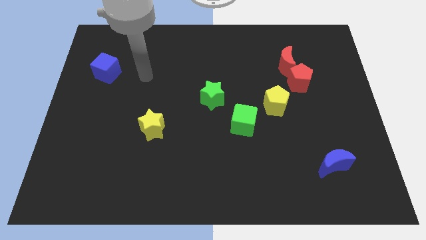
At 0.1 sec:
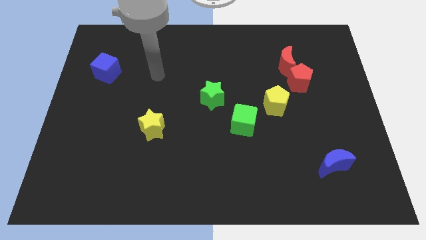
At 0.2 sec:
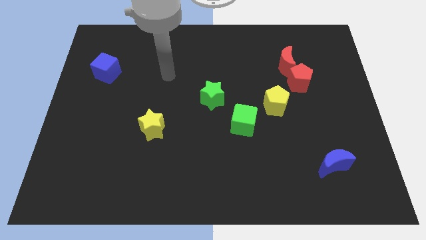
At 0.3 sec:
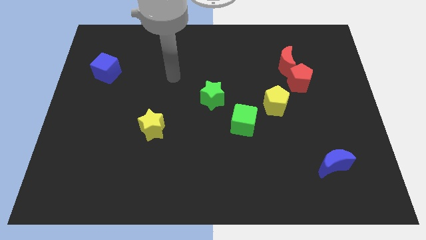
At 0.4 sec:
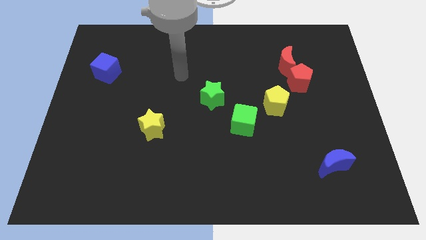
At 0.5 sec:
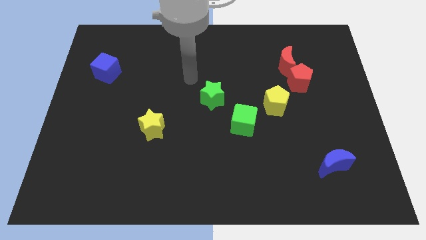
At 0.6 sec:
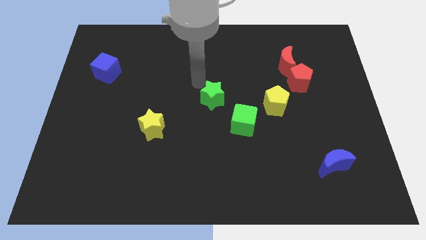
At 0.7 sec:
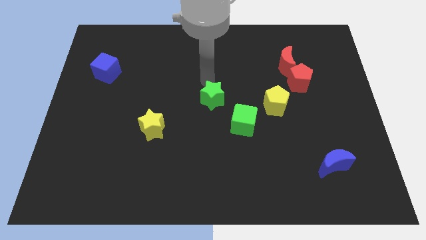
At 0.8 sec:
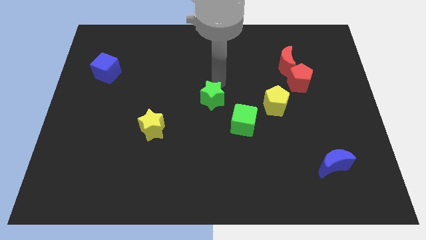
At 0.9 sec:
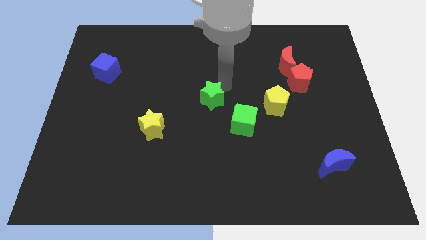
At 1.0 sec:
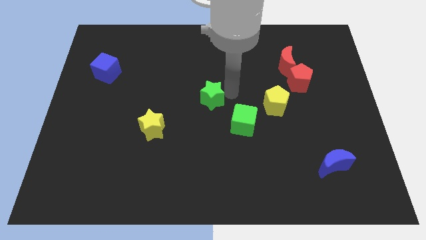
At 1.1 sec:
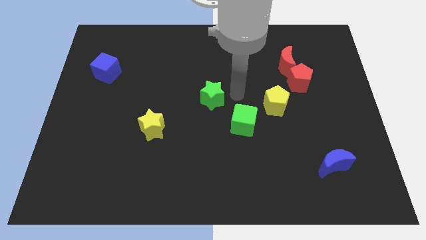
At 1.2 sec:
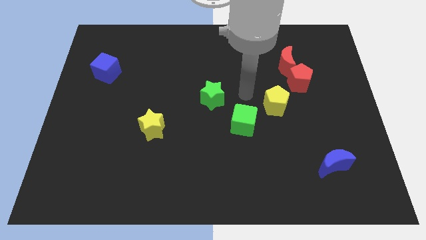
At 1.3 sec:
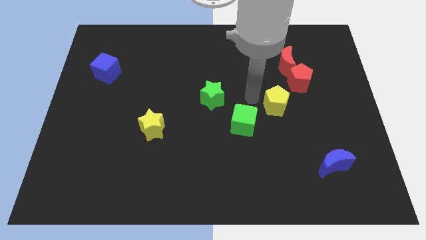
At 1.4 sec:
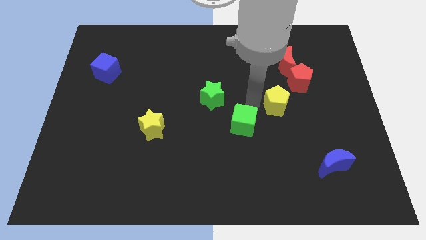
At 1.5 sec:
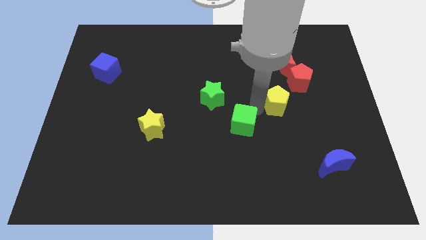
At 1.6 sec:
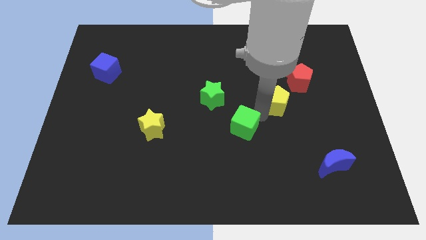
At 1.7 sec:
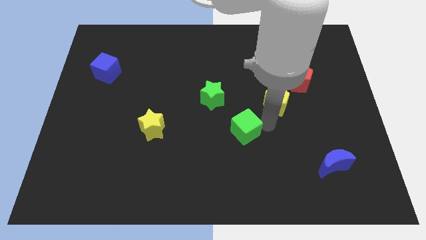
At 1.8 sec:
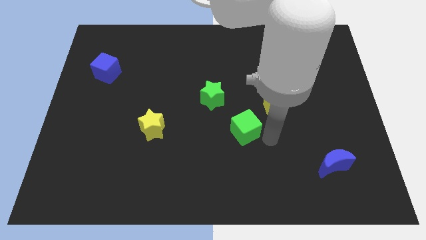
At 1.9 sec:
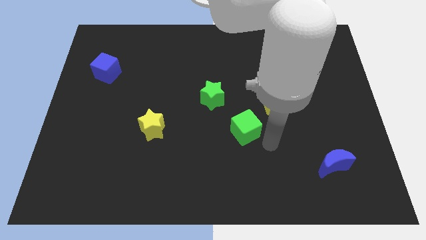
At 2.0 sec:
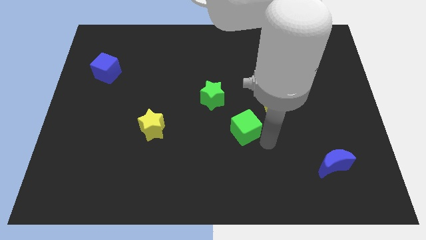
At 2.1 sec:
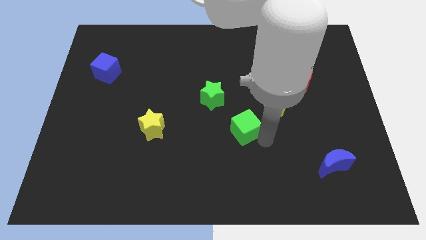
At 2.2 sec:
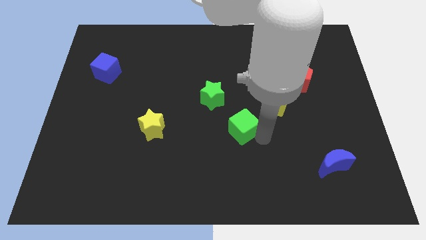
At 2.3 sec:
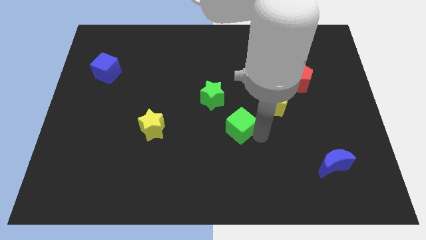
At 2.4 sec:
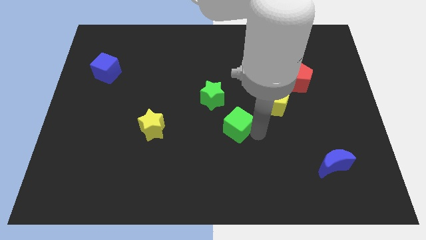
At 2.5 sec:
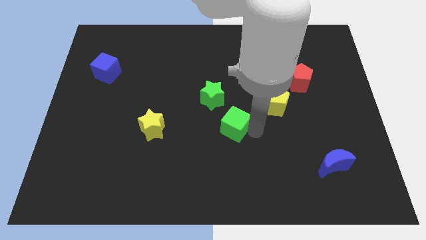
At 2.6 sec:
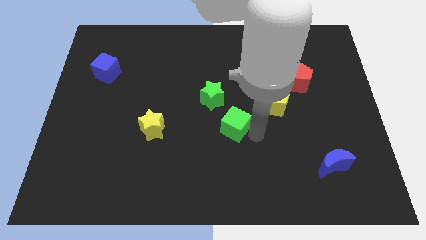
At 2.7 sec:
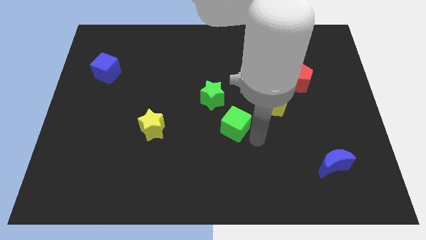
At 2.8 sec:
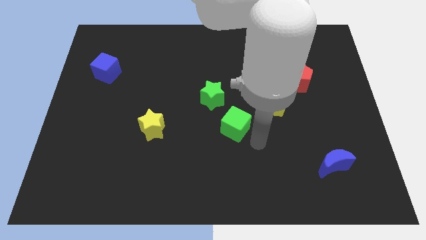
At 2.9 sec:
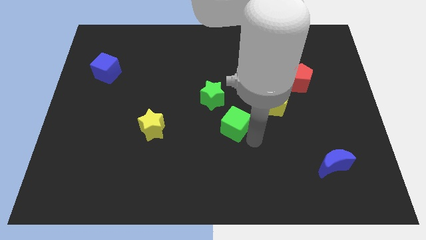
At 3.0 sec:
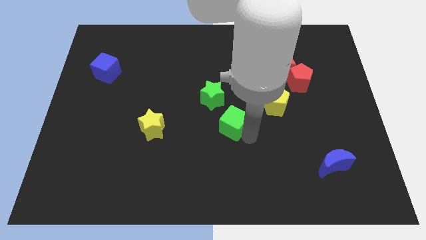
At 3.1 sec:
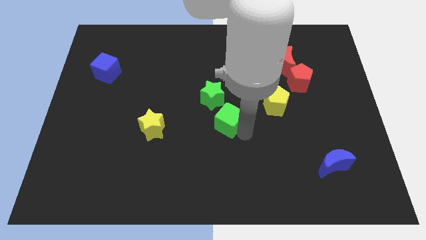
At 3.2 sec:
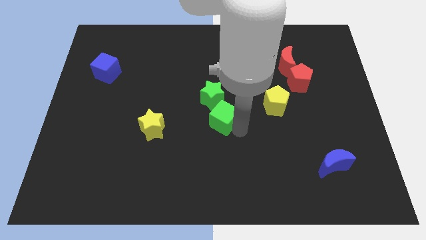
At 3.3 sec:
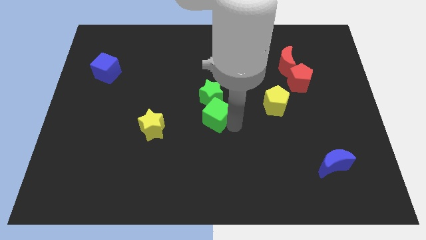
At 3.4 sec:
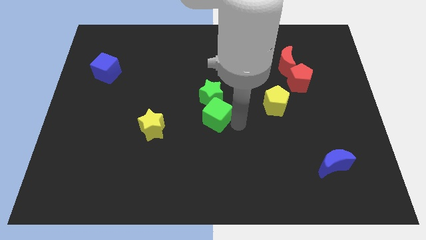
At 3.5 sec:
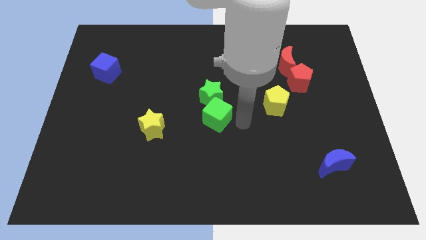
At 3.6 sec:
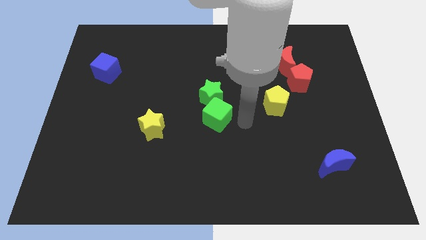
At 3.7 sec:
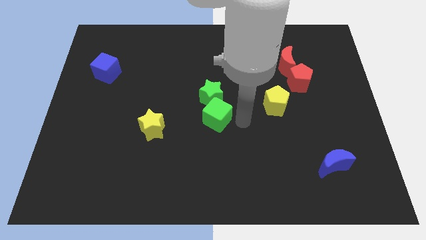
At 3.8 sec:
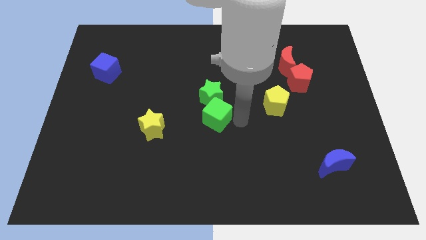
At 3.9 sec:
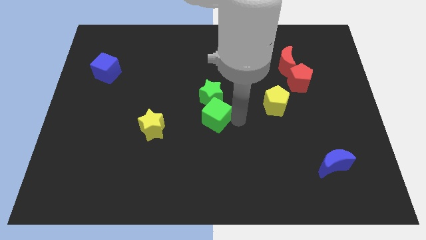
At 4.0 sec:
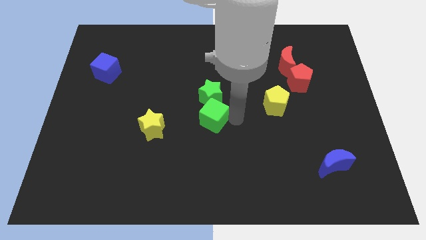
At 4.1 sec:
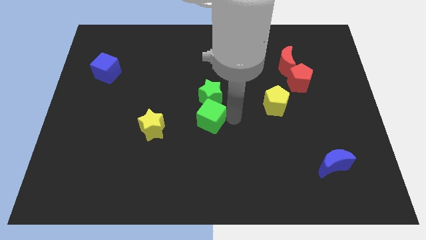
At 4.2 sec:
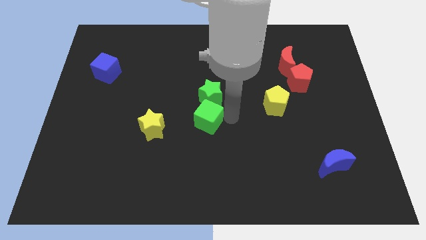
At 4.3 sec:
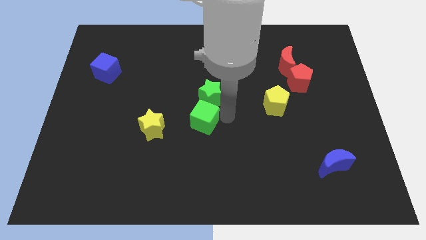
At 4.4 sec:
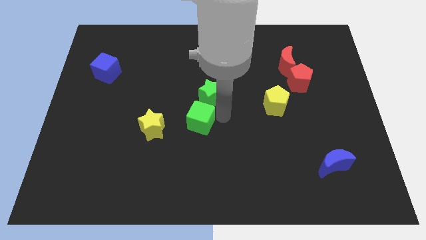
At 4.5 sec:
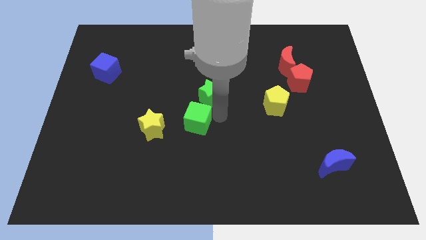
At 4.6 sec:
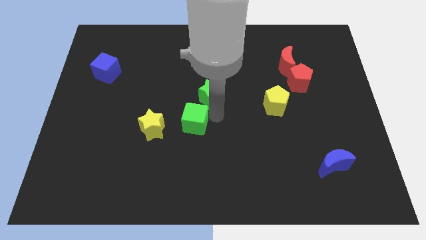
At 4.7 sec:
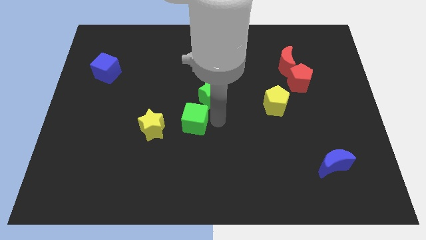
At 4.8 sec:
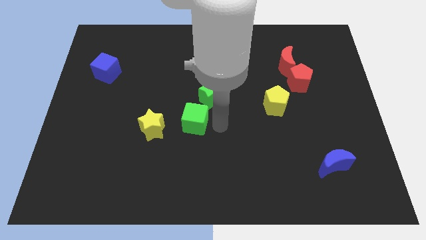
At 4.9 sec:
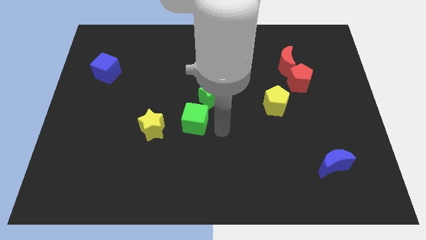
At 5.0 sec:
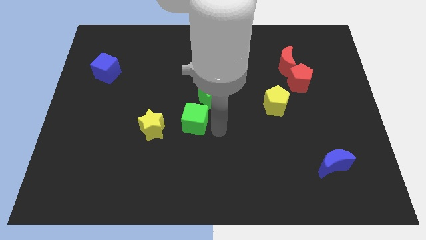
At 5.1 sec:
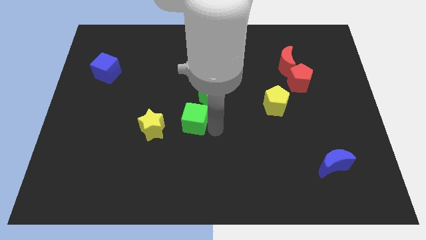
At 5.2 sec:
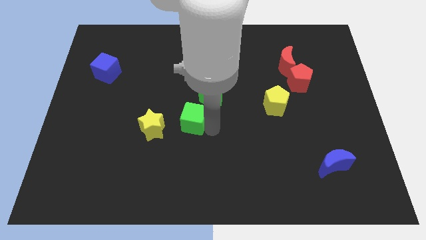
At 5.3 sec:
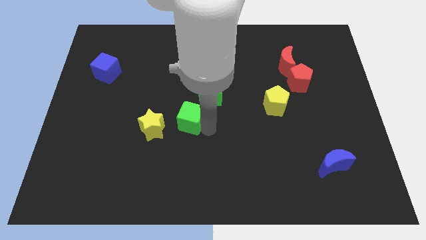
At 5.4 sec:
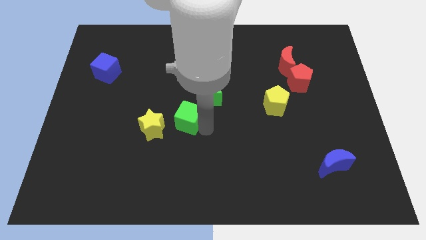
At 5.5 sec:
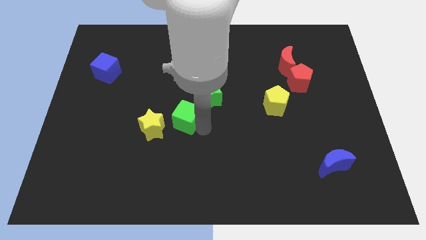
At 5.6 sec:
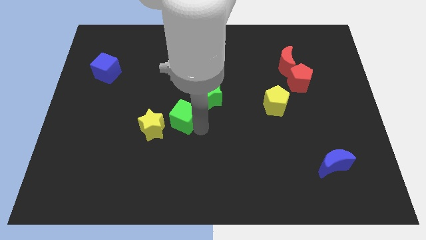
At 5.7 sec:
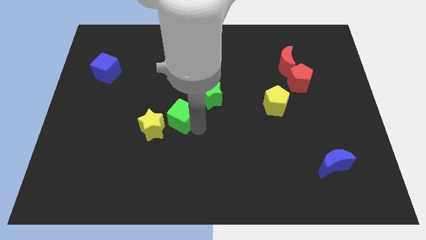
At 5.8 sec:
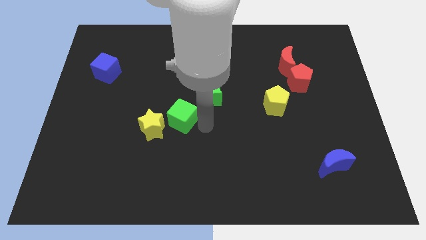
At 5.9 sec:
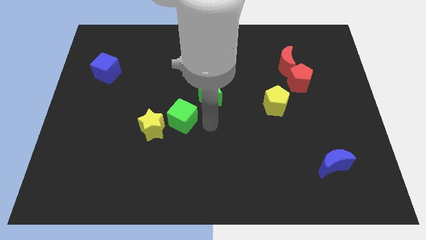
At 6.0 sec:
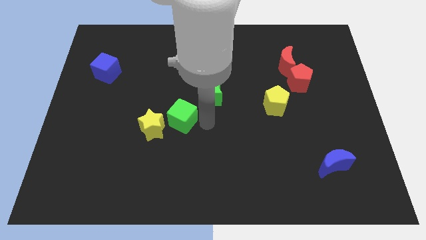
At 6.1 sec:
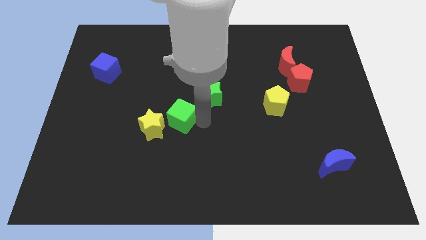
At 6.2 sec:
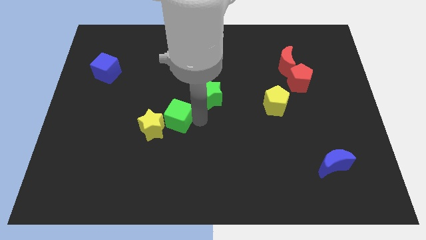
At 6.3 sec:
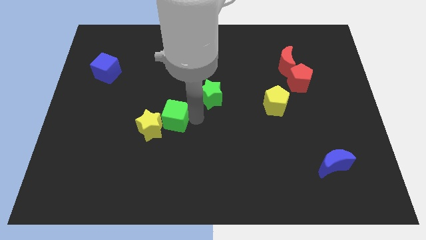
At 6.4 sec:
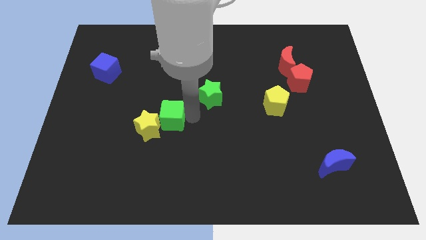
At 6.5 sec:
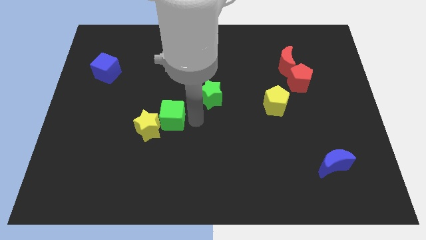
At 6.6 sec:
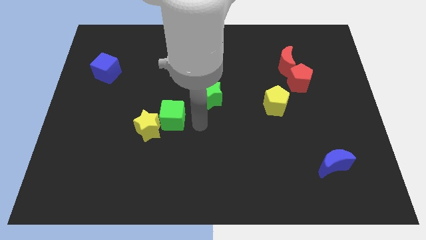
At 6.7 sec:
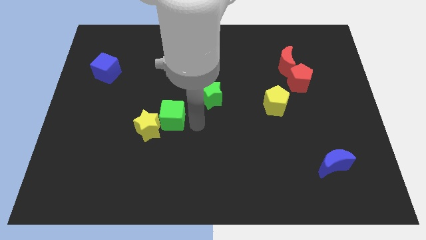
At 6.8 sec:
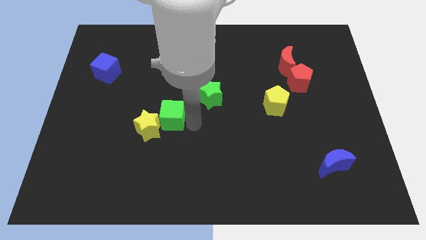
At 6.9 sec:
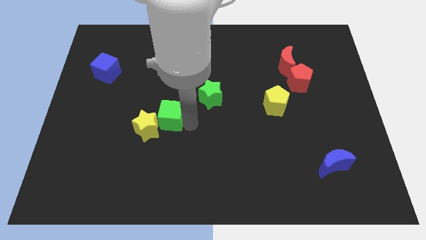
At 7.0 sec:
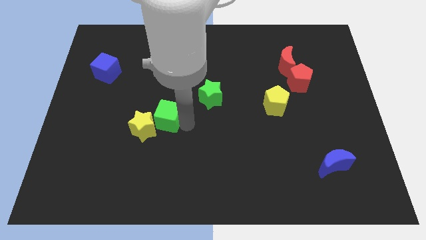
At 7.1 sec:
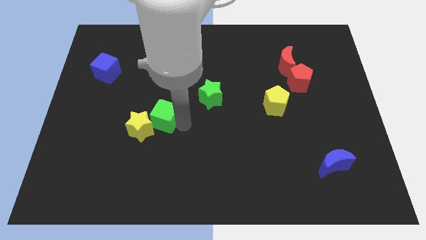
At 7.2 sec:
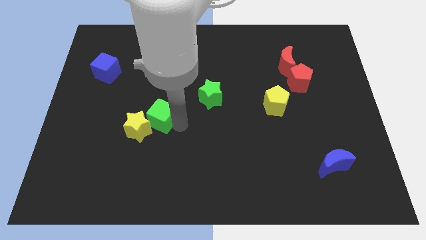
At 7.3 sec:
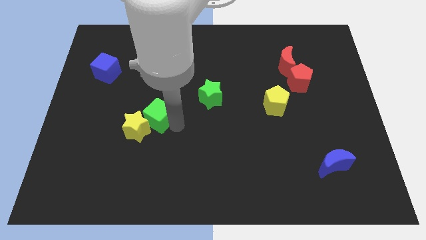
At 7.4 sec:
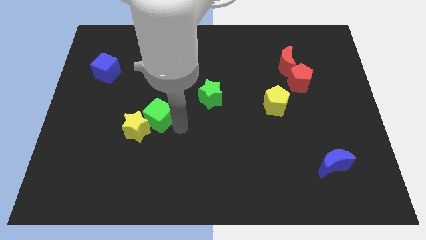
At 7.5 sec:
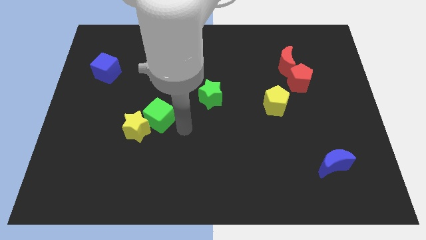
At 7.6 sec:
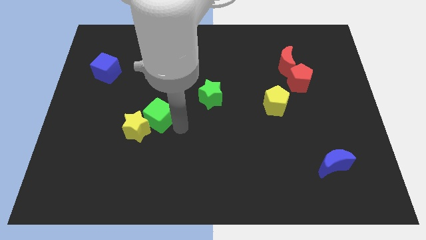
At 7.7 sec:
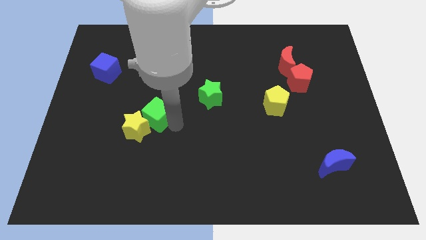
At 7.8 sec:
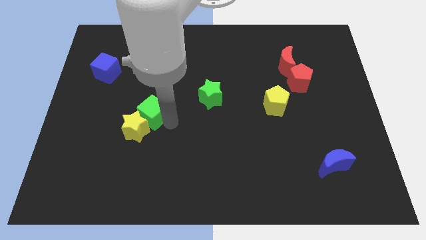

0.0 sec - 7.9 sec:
move the green cube left

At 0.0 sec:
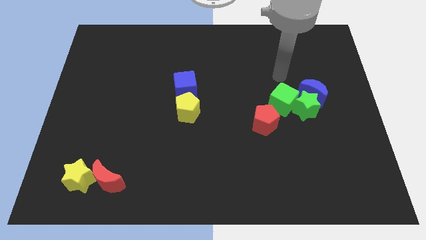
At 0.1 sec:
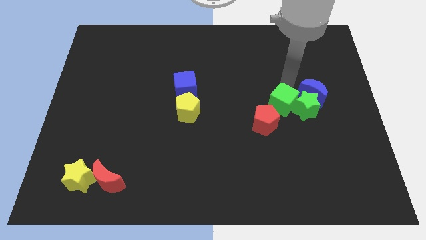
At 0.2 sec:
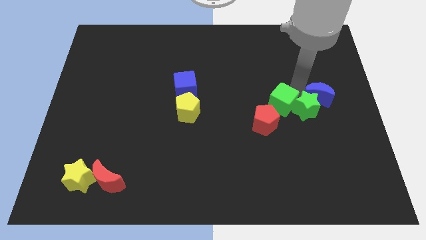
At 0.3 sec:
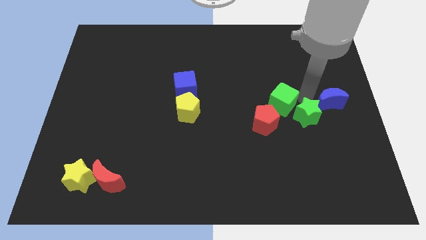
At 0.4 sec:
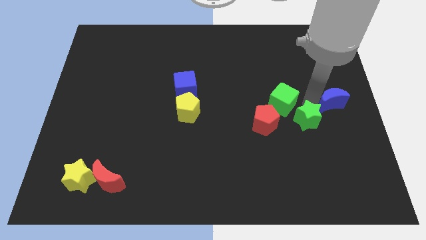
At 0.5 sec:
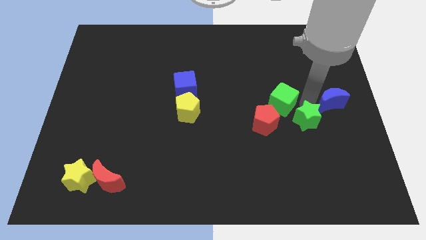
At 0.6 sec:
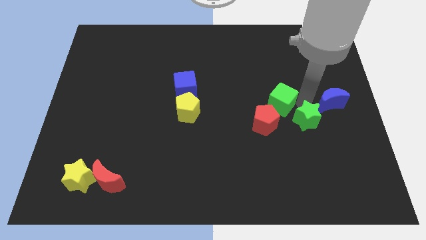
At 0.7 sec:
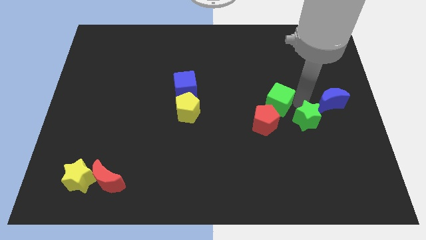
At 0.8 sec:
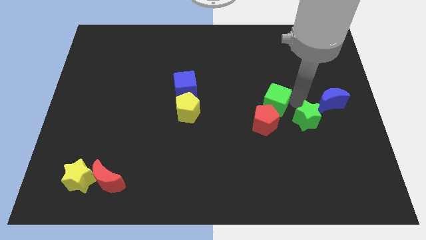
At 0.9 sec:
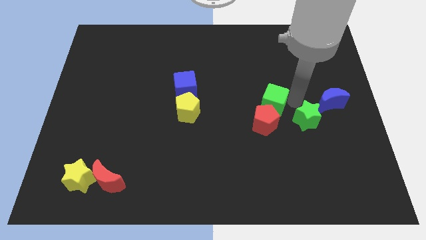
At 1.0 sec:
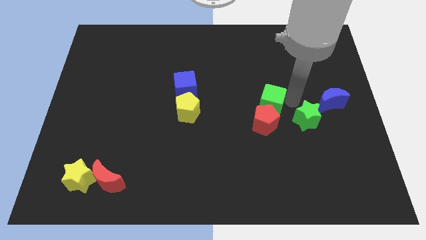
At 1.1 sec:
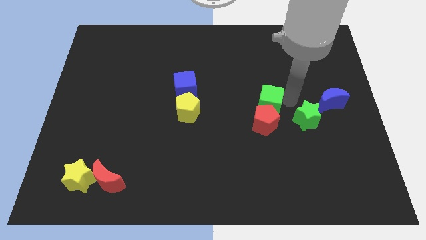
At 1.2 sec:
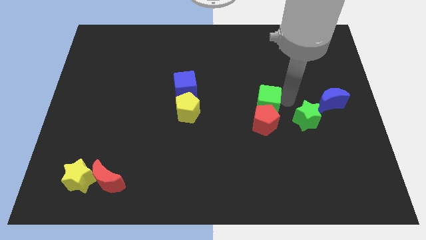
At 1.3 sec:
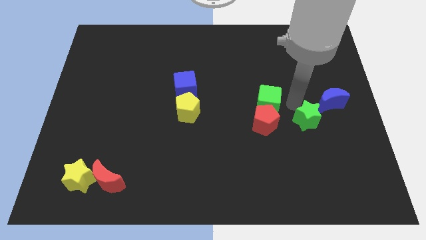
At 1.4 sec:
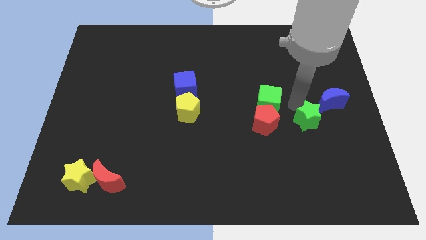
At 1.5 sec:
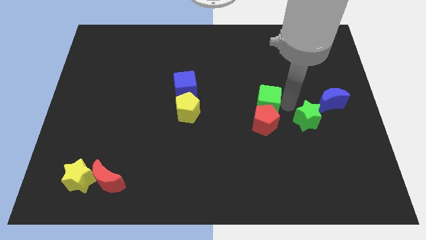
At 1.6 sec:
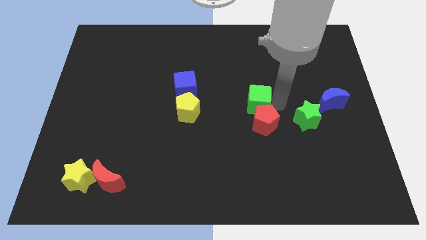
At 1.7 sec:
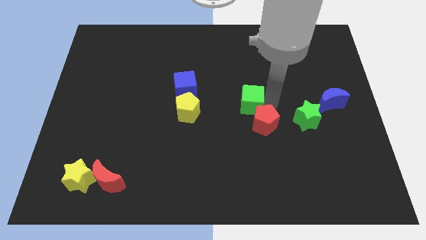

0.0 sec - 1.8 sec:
move the green cube slightly to the left
